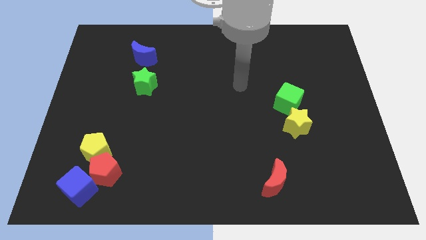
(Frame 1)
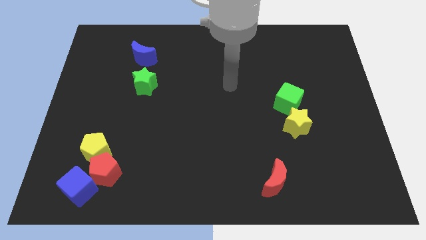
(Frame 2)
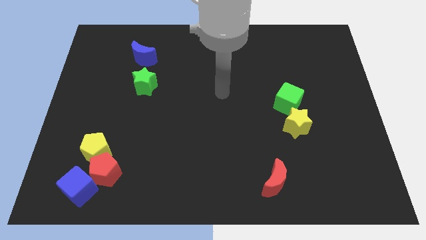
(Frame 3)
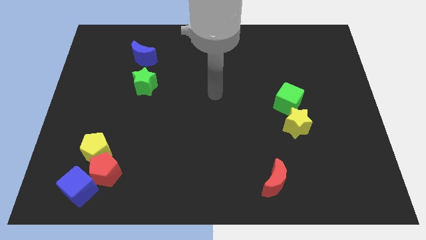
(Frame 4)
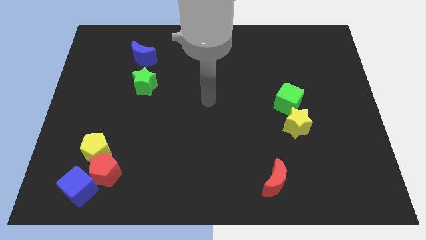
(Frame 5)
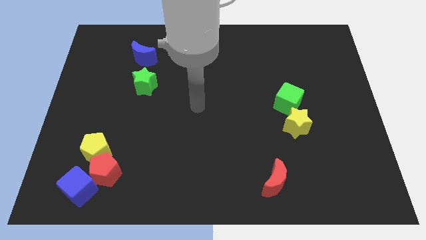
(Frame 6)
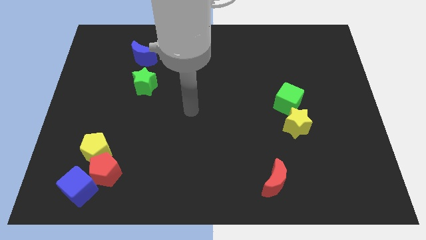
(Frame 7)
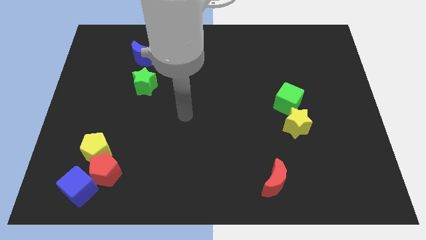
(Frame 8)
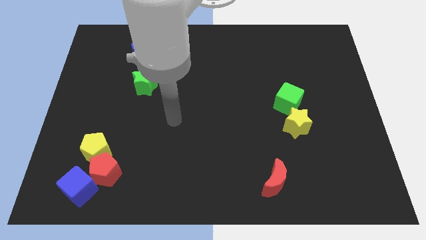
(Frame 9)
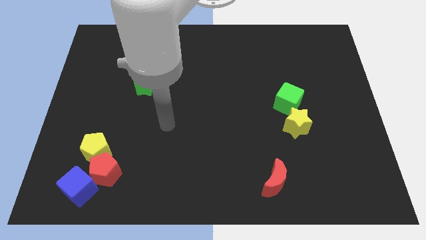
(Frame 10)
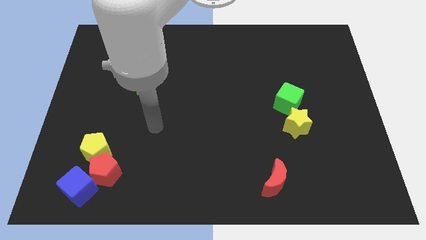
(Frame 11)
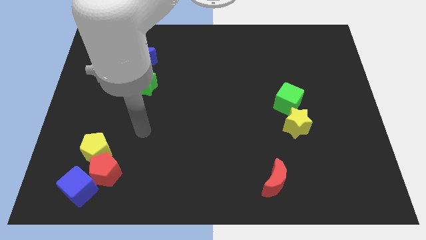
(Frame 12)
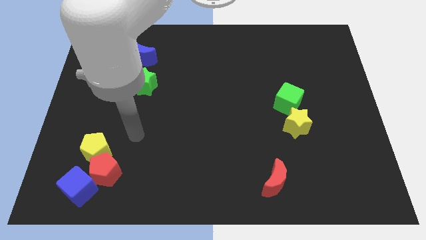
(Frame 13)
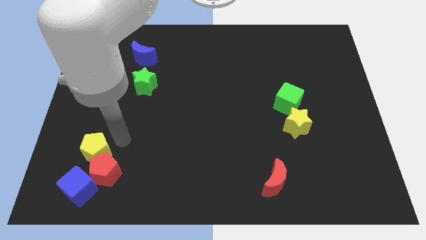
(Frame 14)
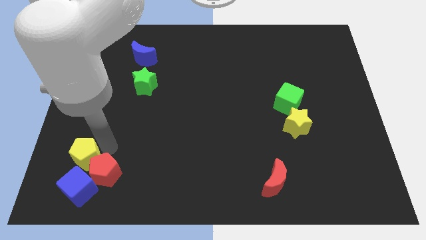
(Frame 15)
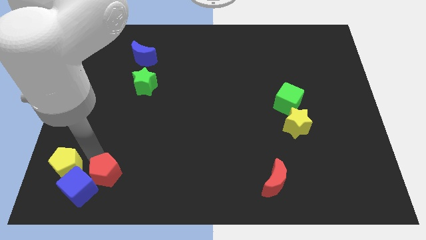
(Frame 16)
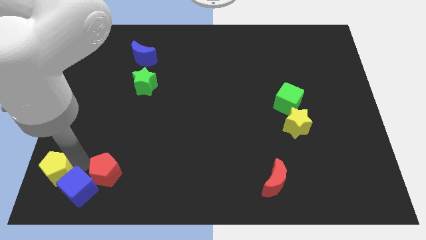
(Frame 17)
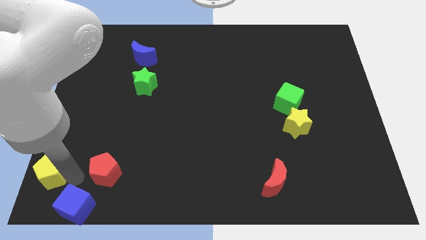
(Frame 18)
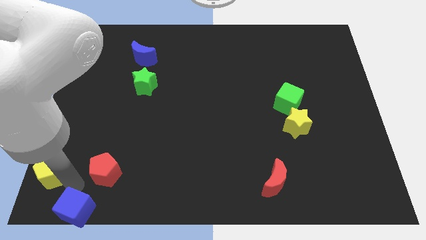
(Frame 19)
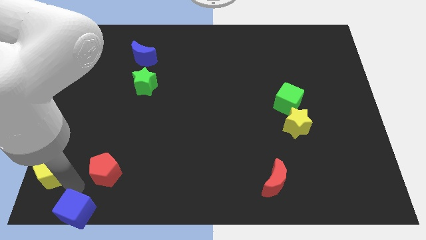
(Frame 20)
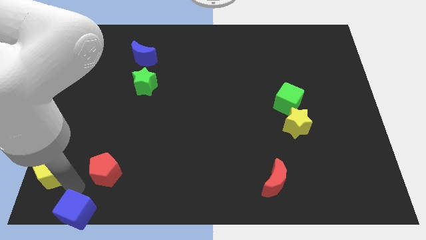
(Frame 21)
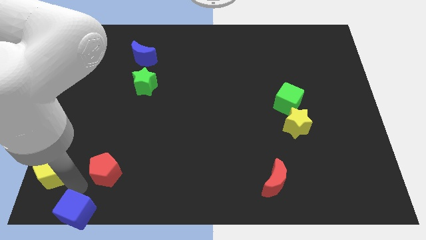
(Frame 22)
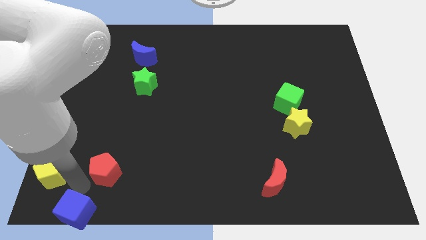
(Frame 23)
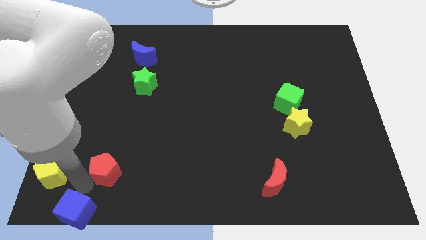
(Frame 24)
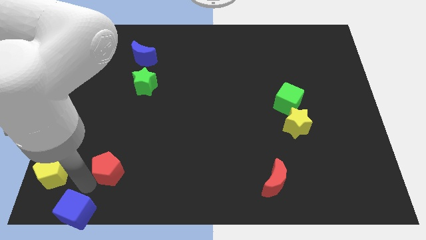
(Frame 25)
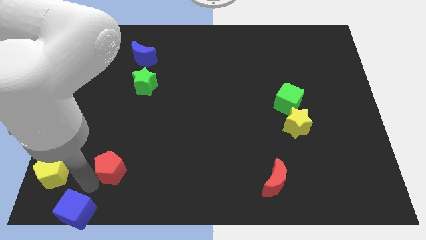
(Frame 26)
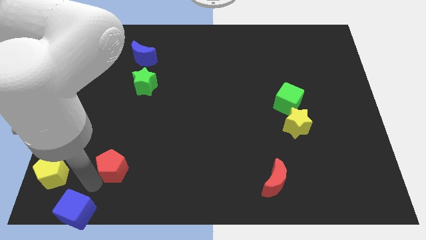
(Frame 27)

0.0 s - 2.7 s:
move the red pentagon away from the blue cube and yellow pentagon

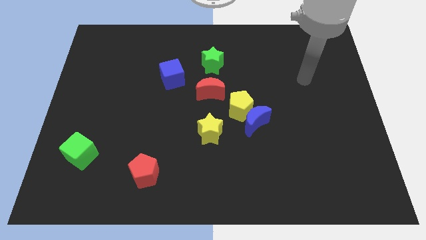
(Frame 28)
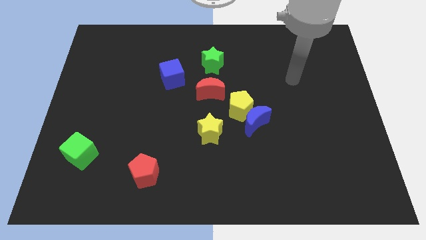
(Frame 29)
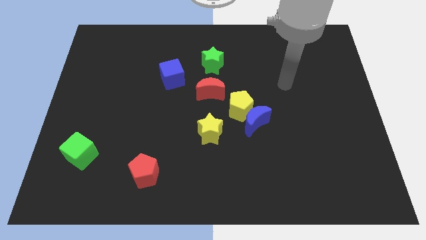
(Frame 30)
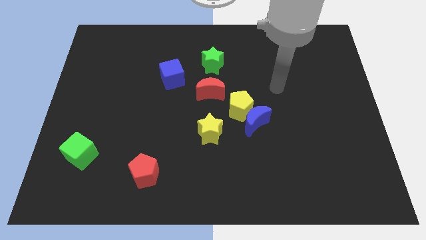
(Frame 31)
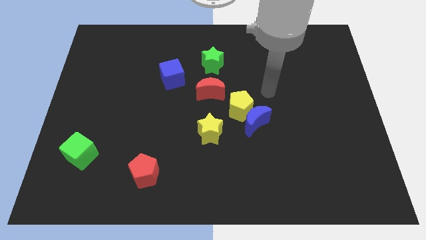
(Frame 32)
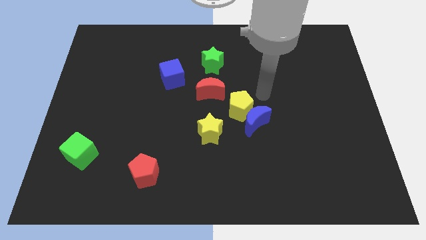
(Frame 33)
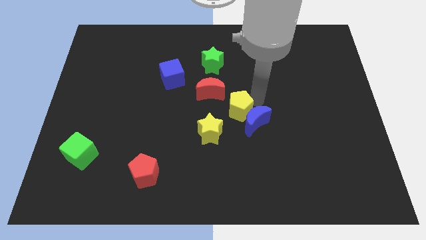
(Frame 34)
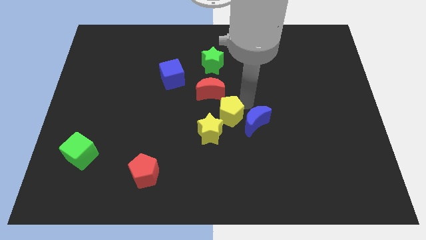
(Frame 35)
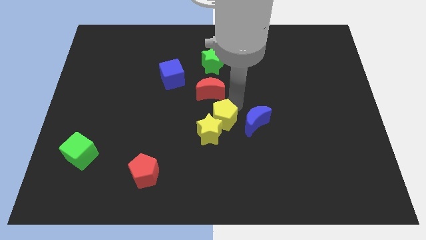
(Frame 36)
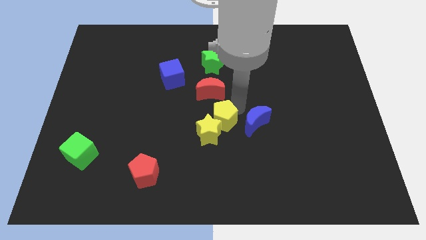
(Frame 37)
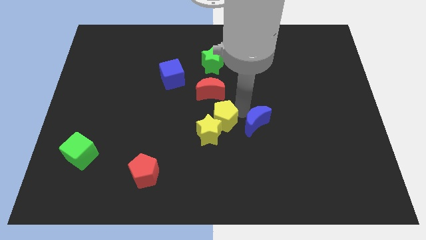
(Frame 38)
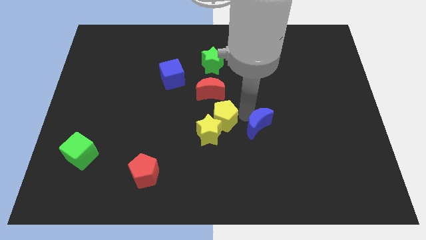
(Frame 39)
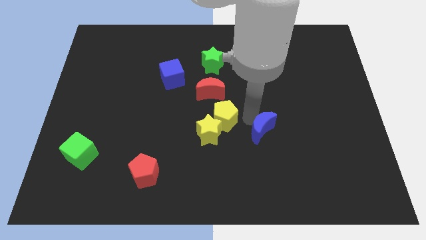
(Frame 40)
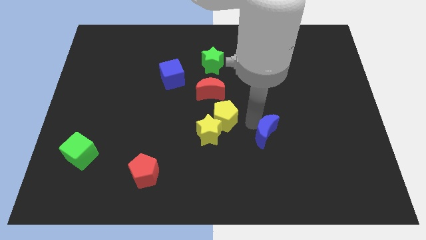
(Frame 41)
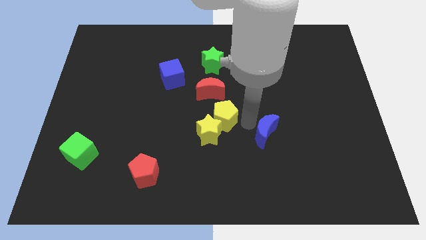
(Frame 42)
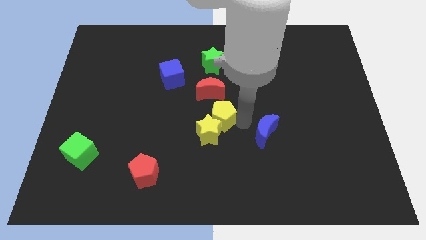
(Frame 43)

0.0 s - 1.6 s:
separate the blue moon from the yellow pentagon

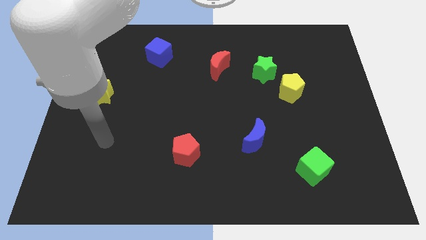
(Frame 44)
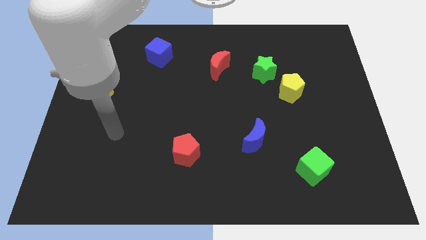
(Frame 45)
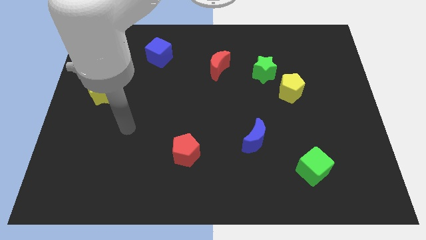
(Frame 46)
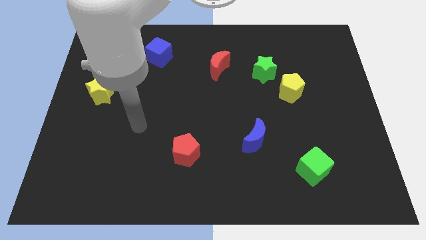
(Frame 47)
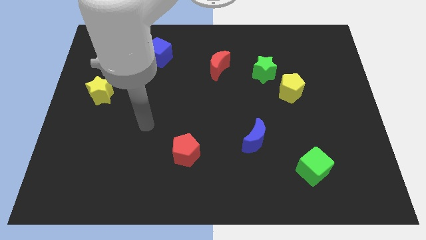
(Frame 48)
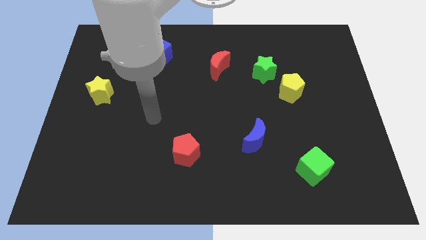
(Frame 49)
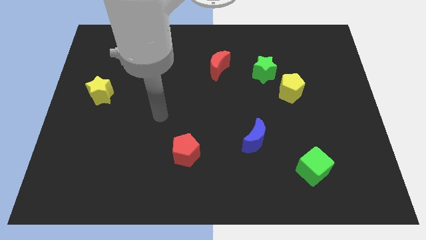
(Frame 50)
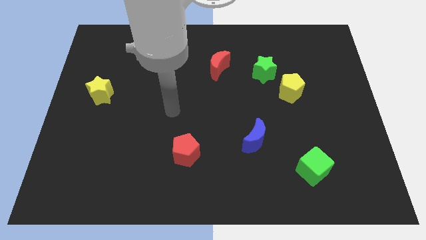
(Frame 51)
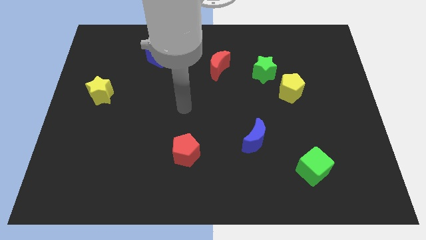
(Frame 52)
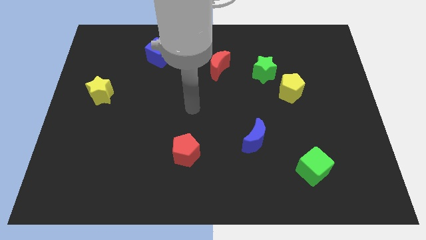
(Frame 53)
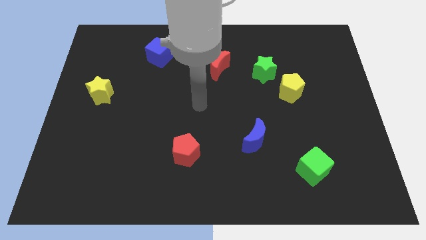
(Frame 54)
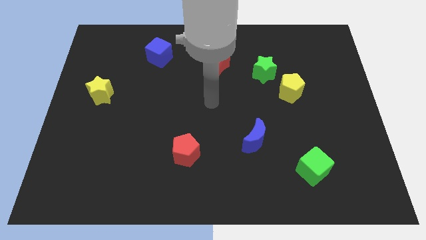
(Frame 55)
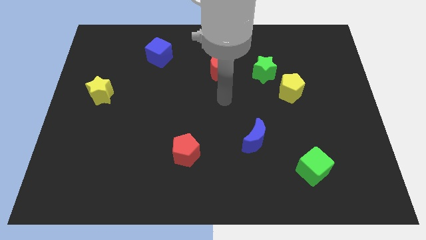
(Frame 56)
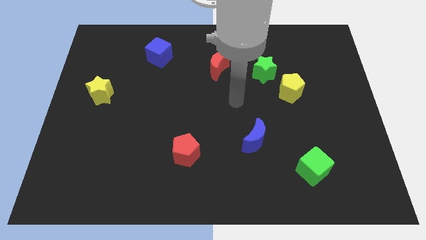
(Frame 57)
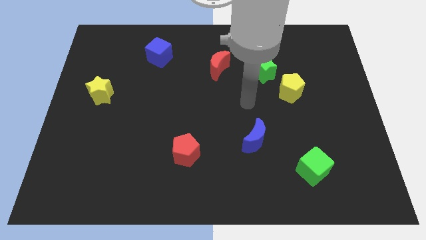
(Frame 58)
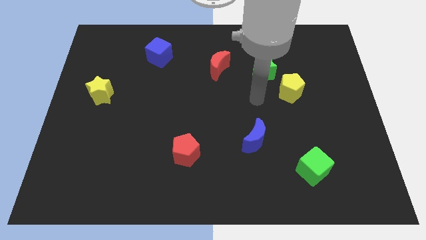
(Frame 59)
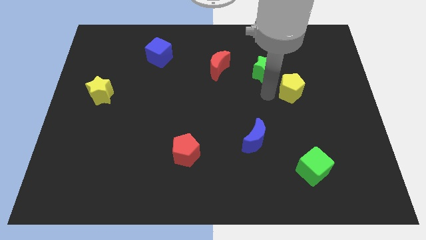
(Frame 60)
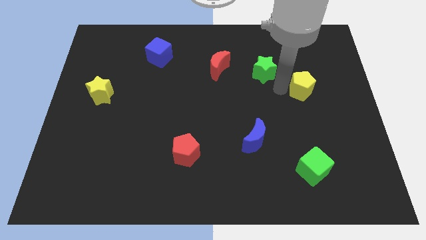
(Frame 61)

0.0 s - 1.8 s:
separate the green star from the yellow pentagon

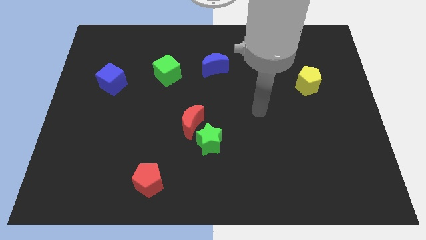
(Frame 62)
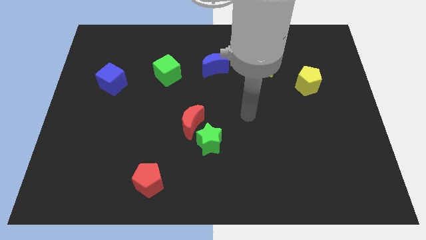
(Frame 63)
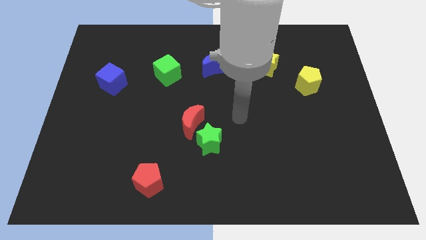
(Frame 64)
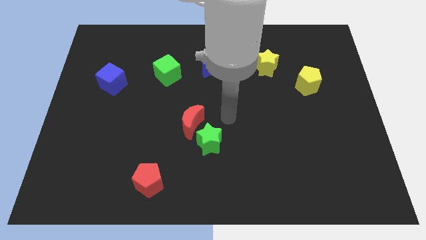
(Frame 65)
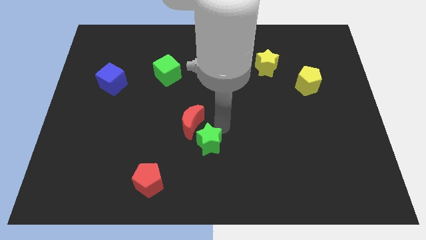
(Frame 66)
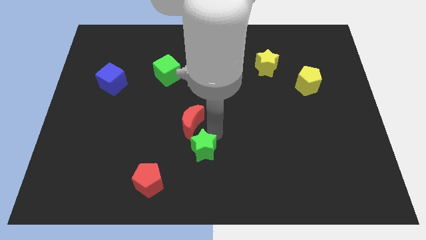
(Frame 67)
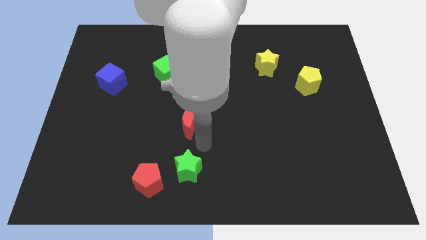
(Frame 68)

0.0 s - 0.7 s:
move the red moon away from the green star

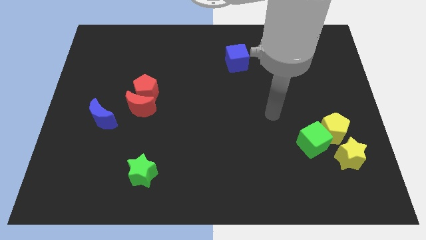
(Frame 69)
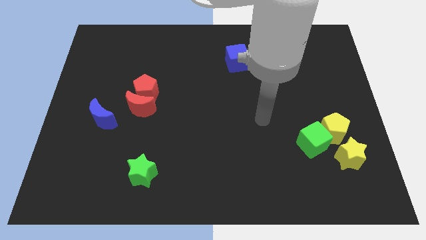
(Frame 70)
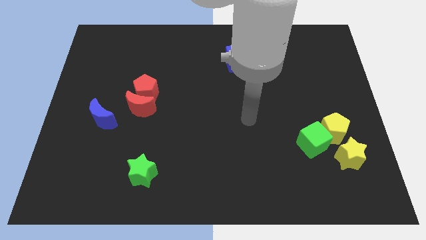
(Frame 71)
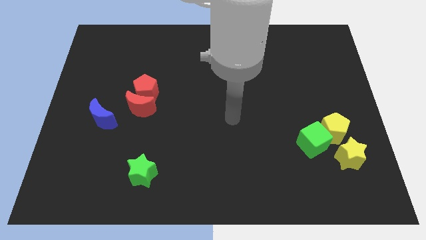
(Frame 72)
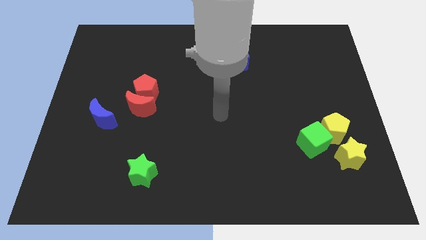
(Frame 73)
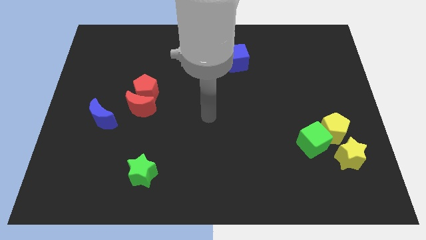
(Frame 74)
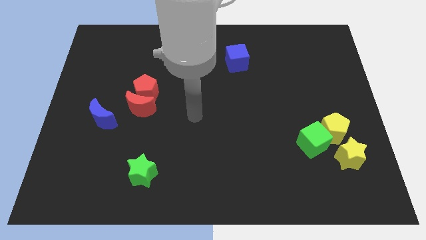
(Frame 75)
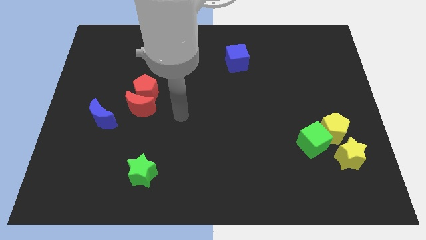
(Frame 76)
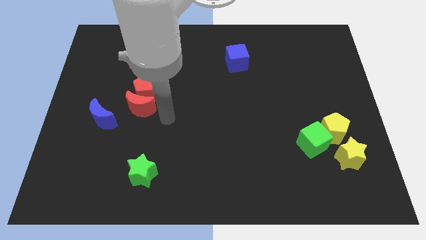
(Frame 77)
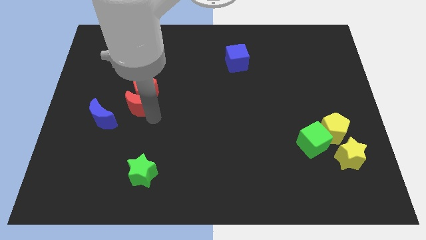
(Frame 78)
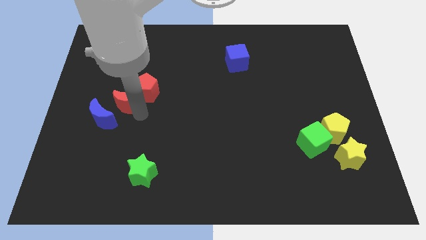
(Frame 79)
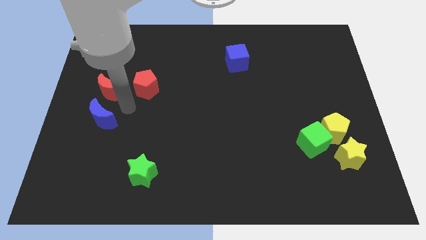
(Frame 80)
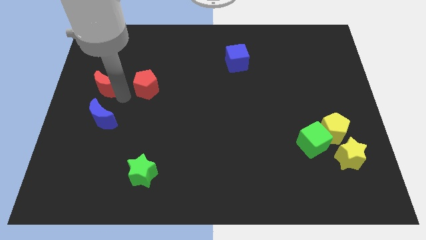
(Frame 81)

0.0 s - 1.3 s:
move the red pentagon away from the red moon

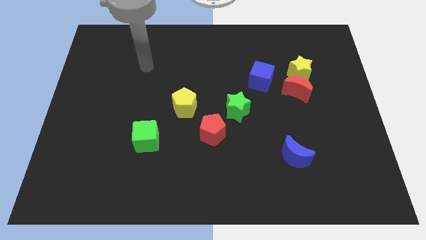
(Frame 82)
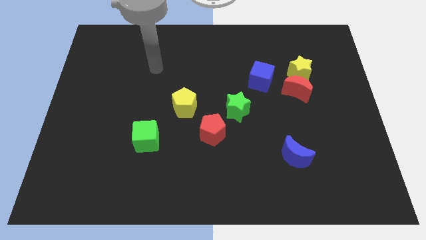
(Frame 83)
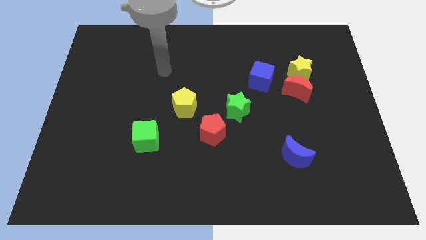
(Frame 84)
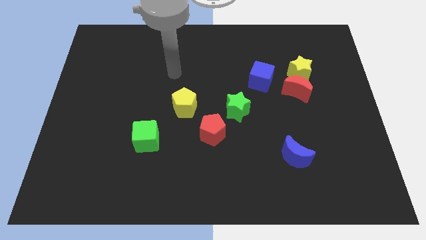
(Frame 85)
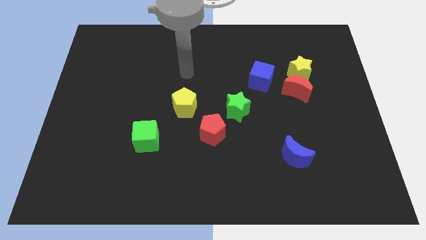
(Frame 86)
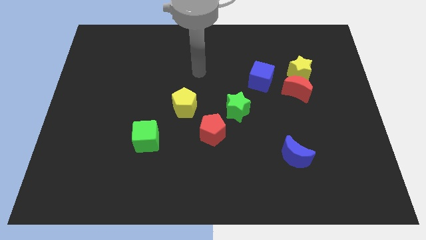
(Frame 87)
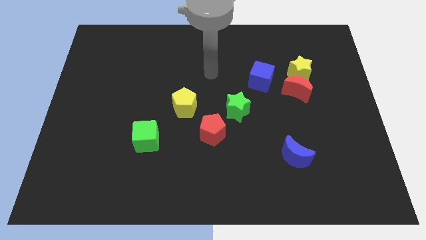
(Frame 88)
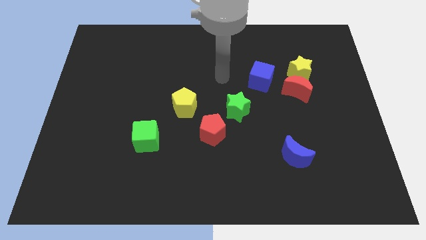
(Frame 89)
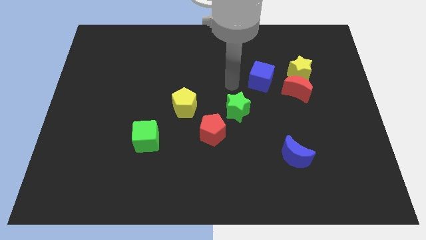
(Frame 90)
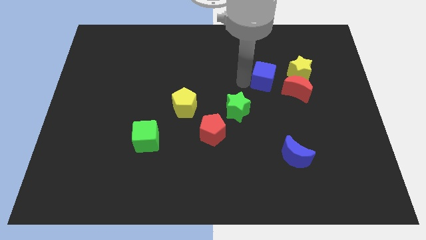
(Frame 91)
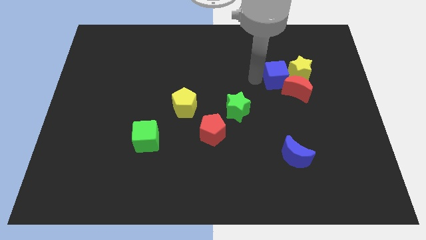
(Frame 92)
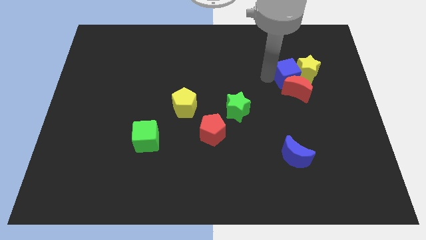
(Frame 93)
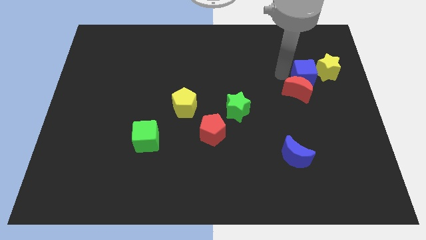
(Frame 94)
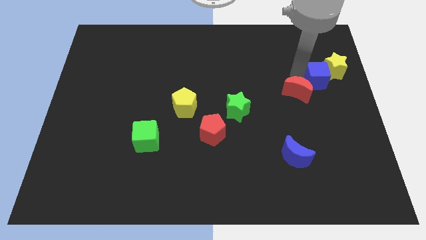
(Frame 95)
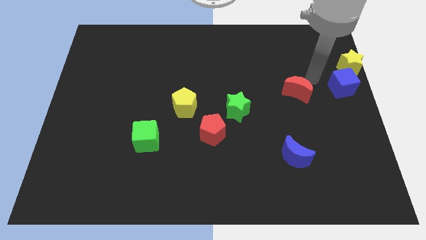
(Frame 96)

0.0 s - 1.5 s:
move the red moon away from the yellow star and blue cube
